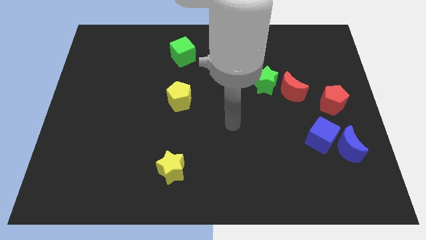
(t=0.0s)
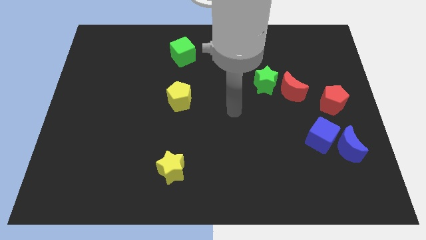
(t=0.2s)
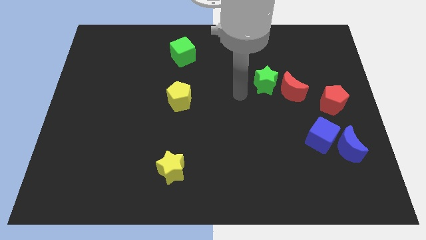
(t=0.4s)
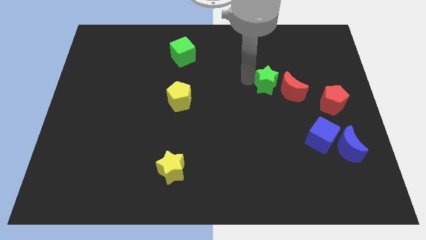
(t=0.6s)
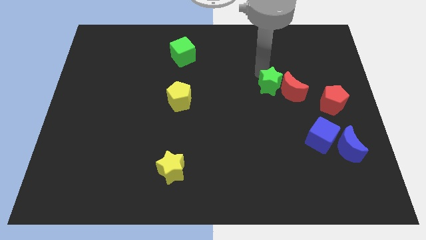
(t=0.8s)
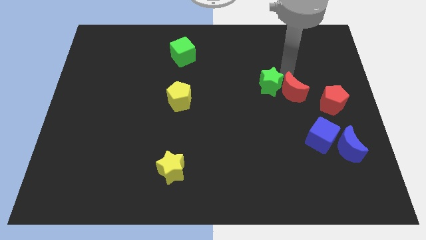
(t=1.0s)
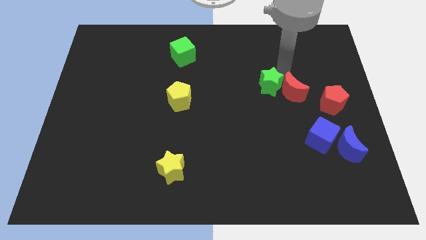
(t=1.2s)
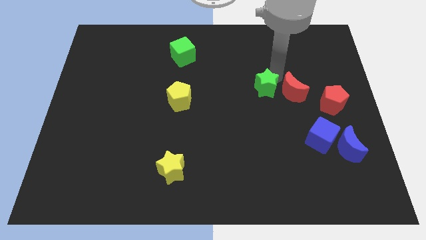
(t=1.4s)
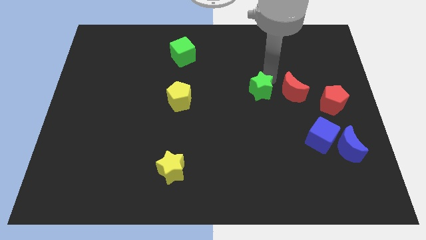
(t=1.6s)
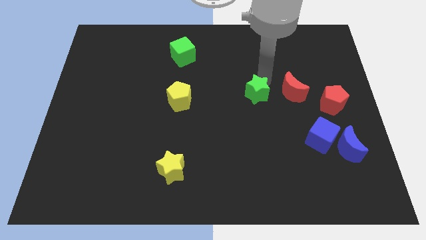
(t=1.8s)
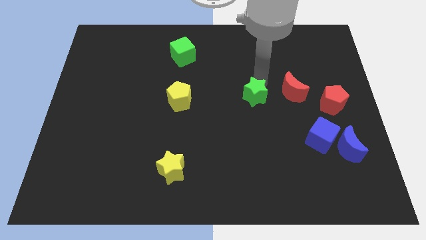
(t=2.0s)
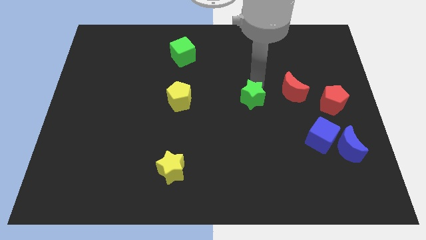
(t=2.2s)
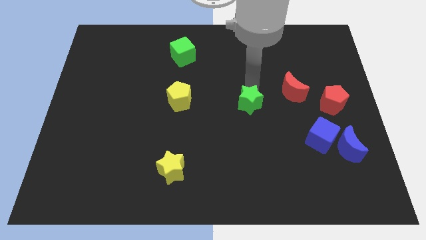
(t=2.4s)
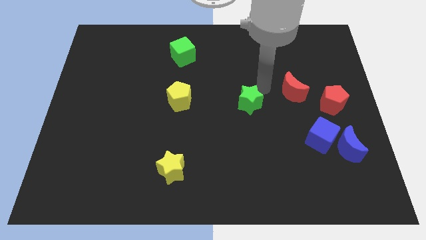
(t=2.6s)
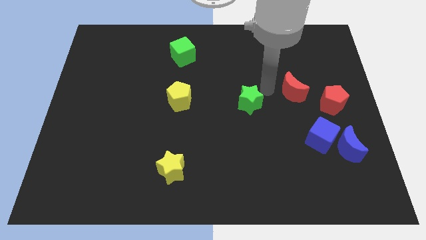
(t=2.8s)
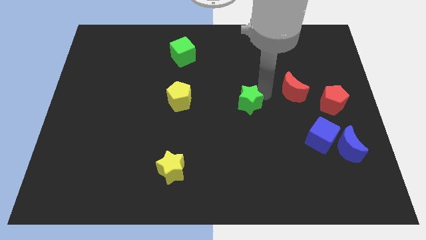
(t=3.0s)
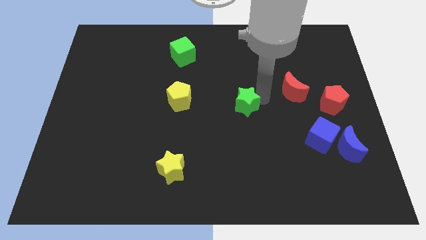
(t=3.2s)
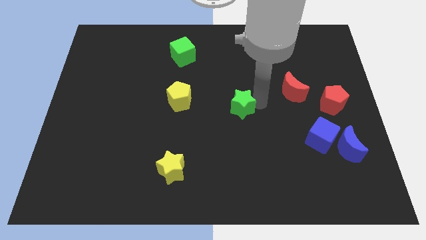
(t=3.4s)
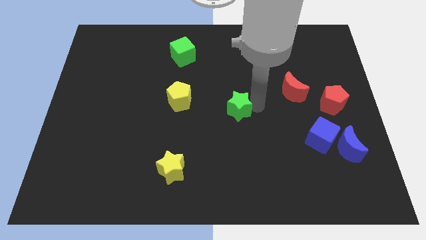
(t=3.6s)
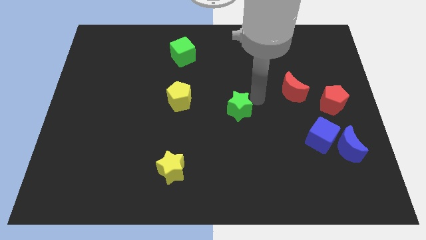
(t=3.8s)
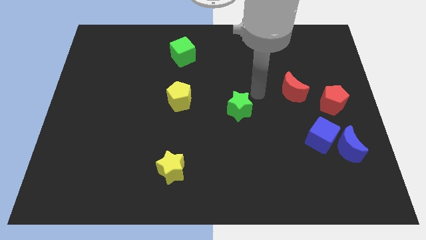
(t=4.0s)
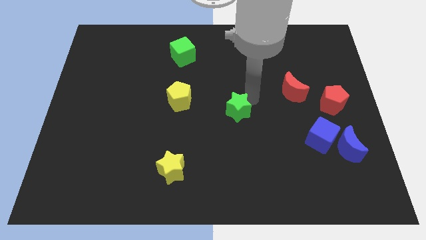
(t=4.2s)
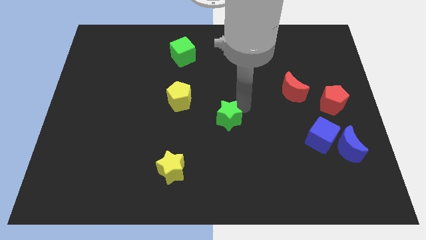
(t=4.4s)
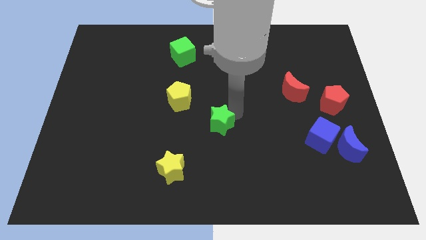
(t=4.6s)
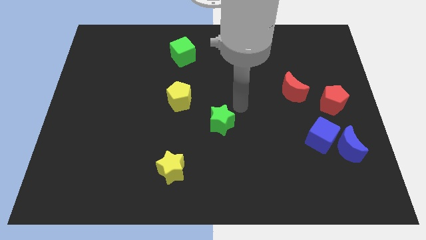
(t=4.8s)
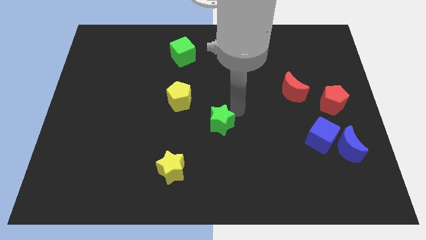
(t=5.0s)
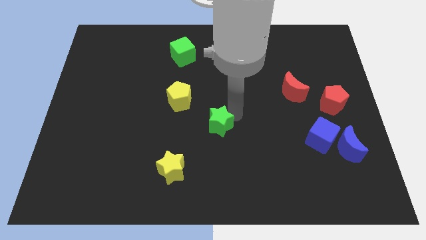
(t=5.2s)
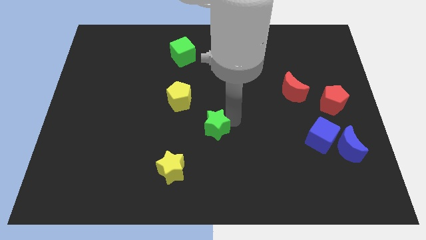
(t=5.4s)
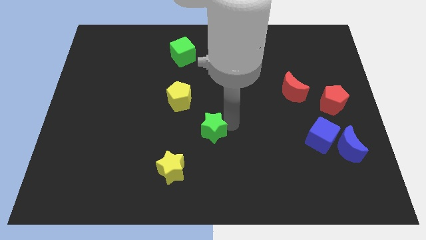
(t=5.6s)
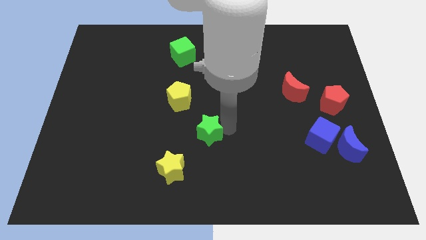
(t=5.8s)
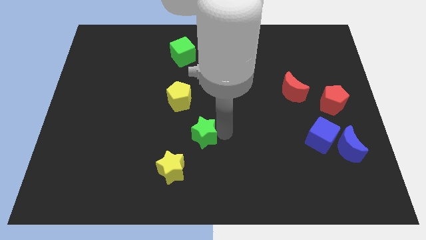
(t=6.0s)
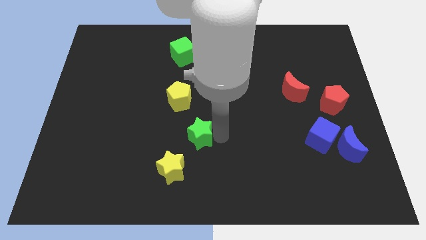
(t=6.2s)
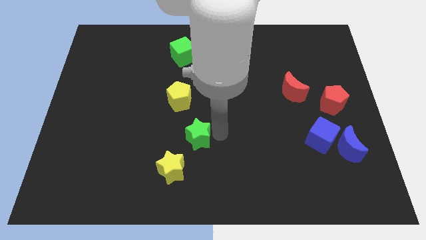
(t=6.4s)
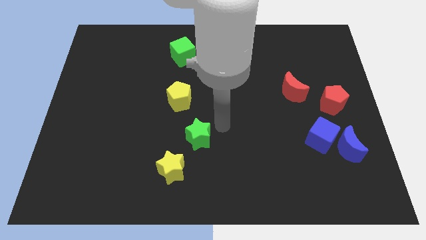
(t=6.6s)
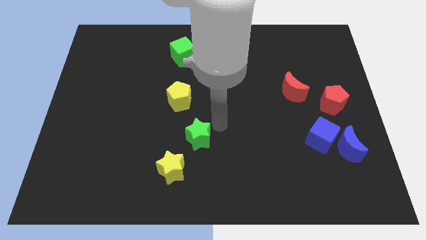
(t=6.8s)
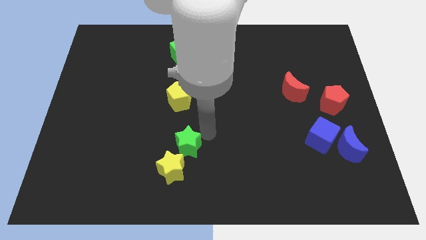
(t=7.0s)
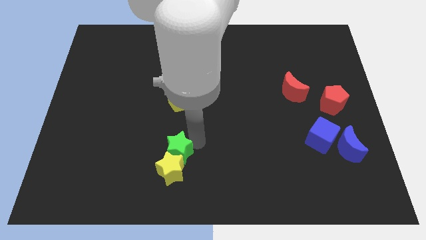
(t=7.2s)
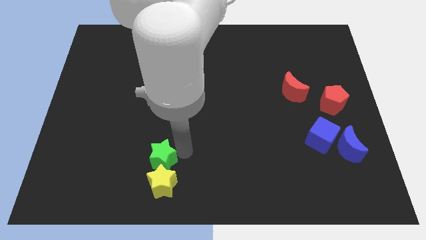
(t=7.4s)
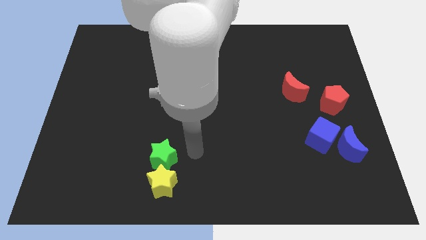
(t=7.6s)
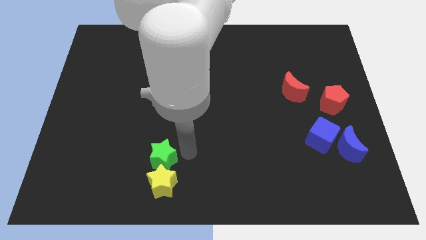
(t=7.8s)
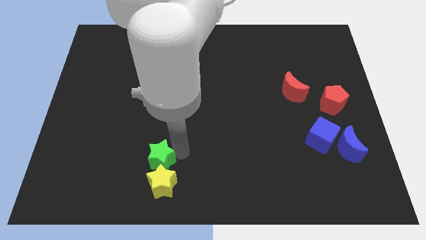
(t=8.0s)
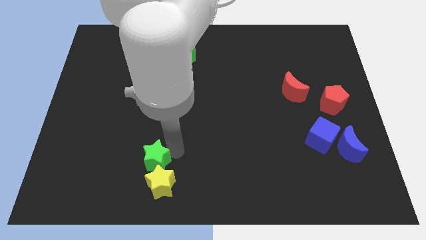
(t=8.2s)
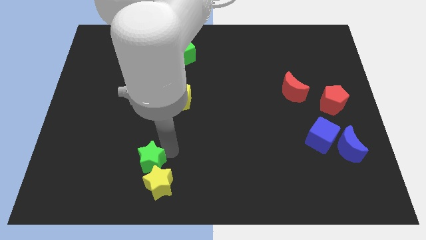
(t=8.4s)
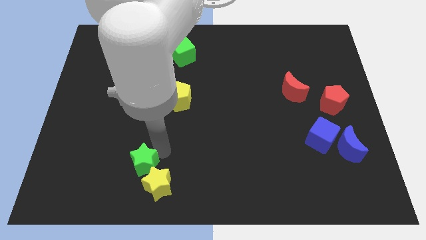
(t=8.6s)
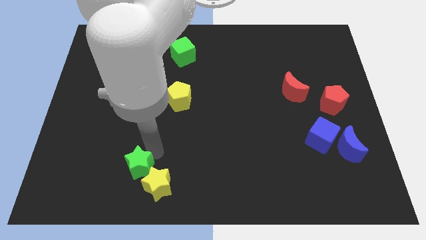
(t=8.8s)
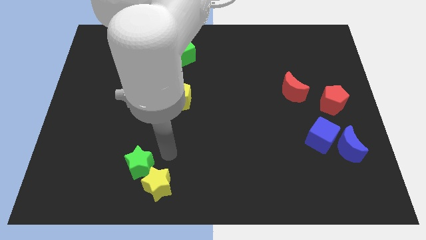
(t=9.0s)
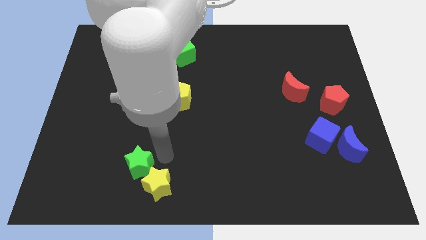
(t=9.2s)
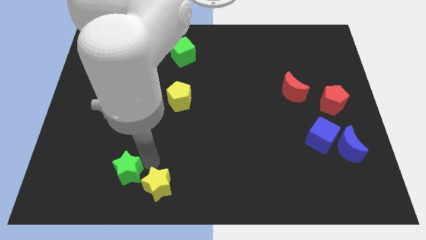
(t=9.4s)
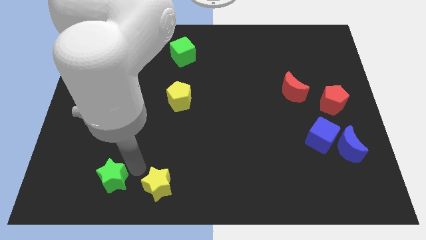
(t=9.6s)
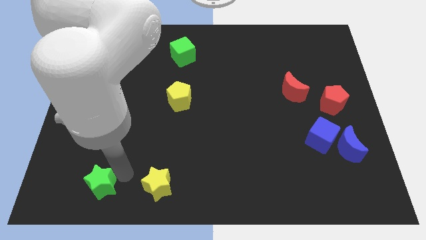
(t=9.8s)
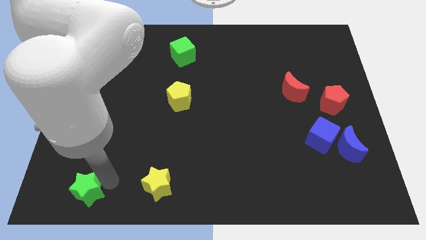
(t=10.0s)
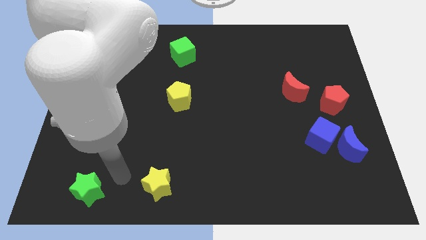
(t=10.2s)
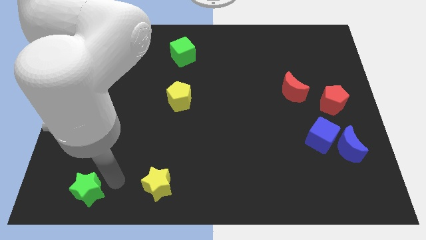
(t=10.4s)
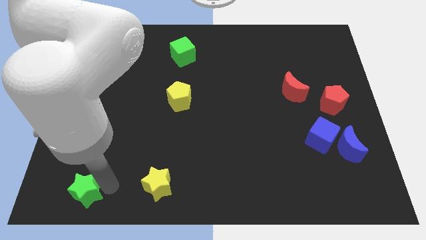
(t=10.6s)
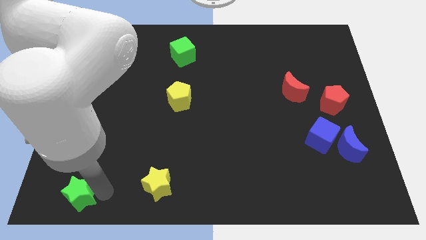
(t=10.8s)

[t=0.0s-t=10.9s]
move the green star to the bottom left of the board

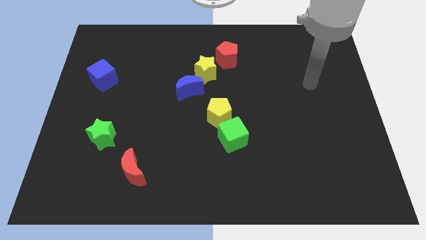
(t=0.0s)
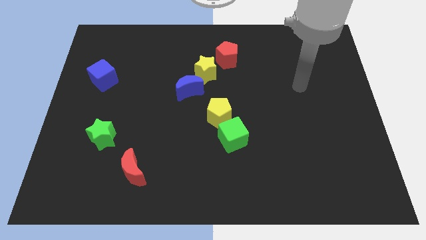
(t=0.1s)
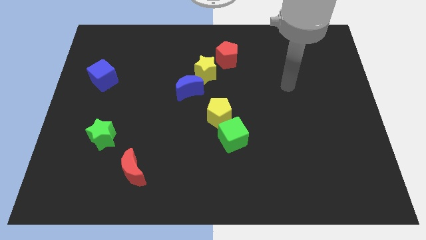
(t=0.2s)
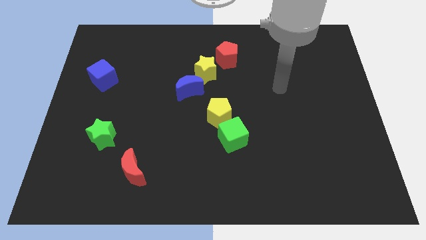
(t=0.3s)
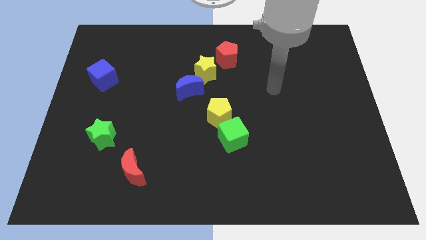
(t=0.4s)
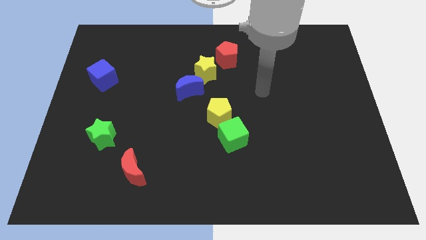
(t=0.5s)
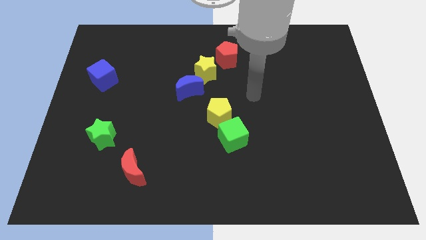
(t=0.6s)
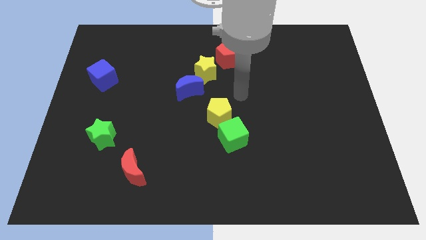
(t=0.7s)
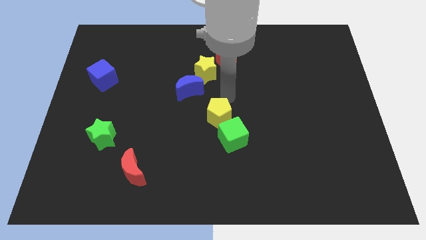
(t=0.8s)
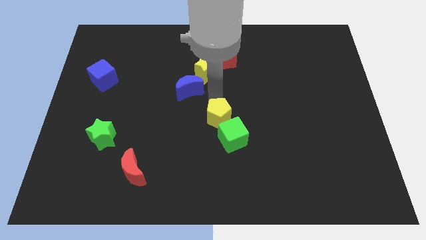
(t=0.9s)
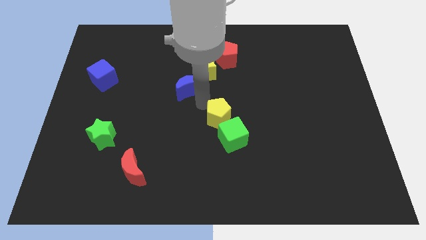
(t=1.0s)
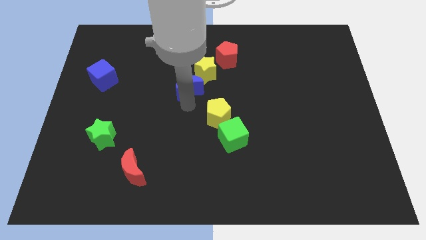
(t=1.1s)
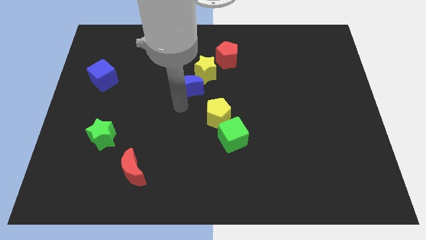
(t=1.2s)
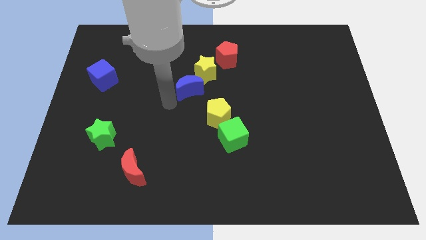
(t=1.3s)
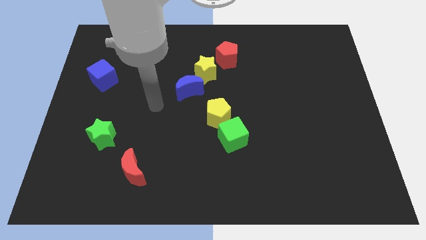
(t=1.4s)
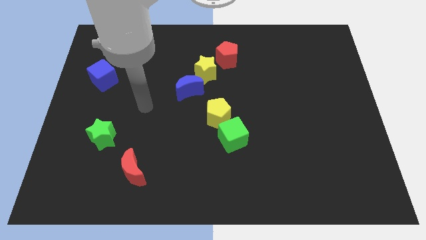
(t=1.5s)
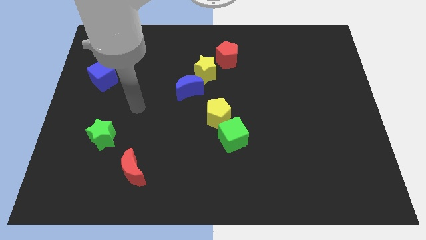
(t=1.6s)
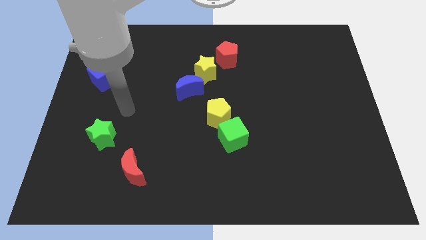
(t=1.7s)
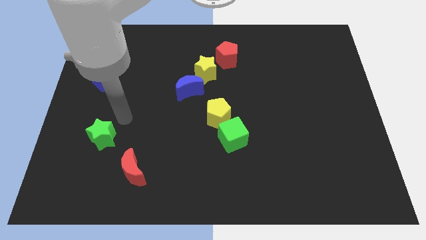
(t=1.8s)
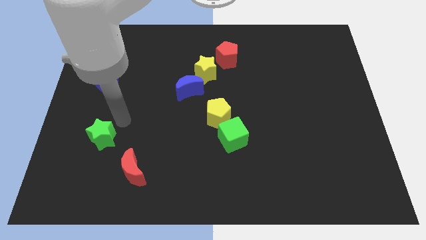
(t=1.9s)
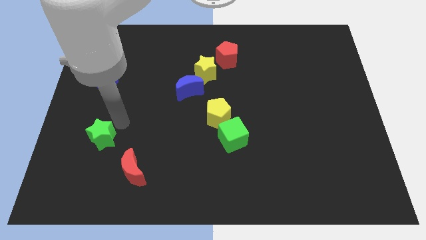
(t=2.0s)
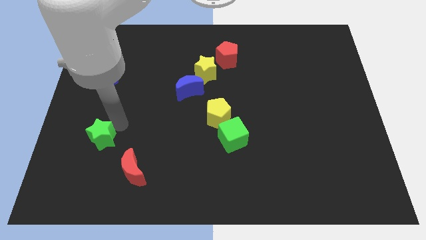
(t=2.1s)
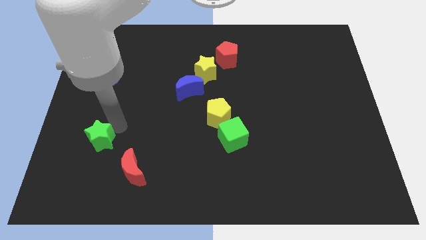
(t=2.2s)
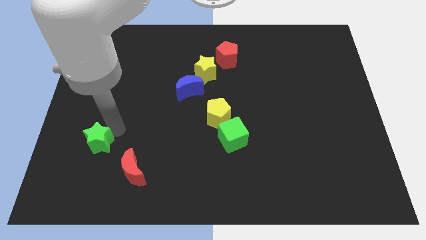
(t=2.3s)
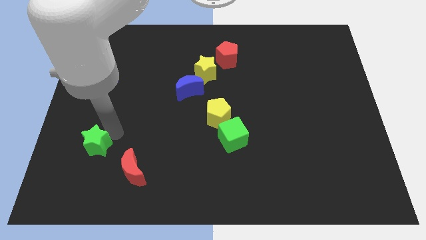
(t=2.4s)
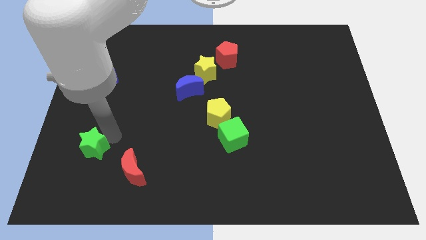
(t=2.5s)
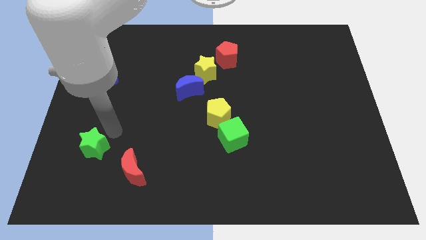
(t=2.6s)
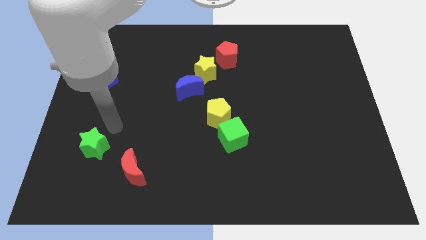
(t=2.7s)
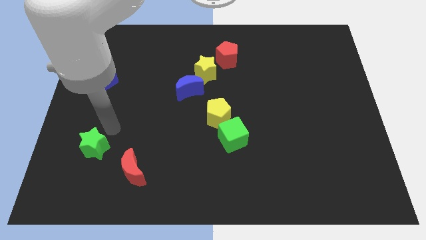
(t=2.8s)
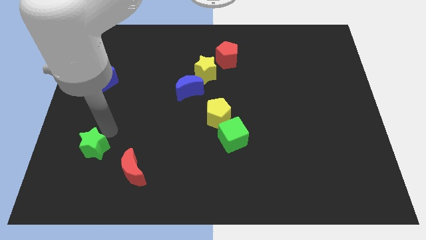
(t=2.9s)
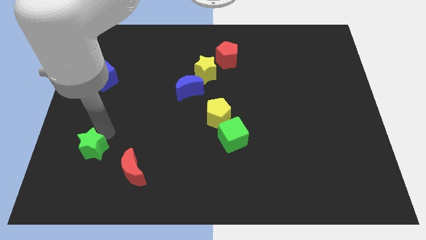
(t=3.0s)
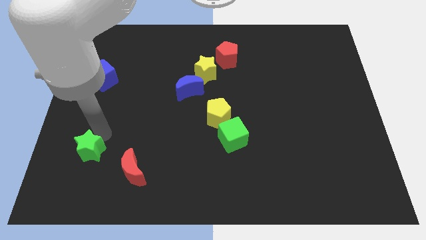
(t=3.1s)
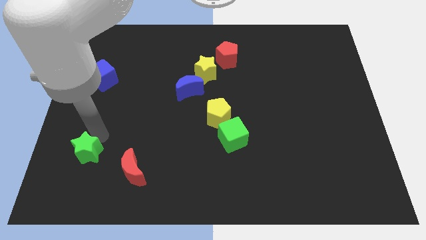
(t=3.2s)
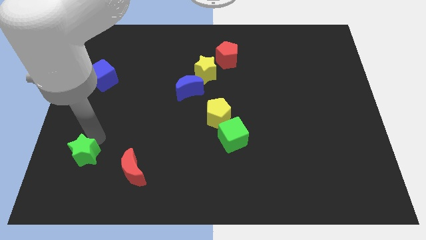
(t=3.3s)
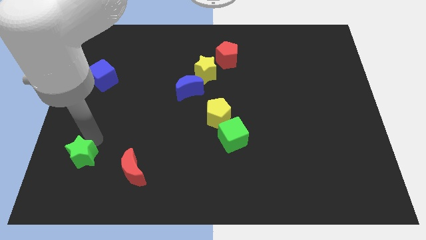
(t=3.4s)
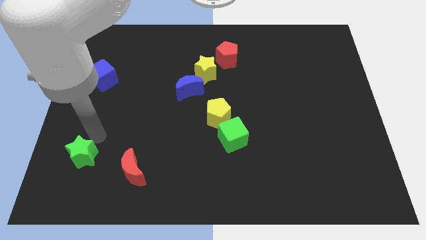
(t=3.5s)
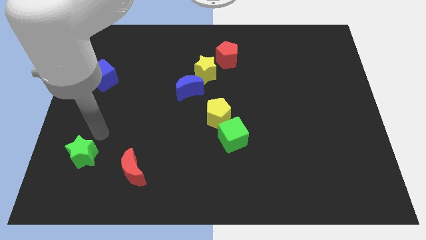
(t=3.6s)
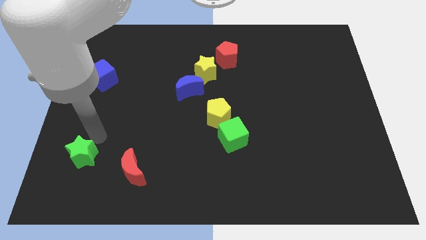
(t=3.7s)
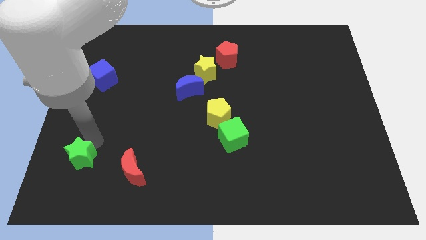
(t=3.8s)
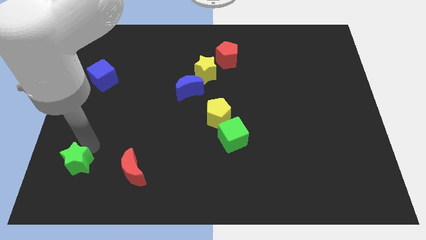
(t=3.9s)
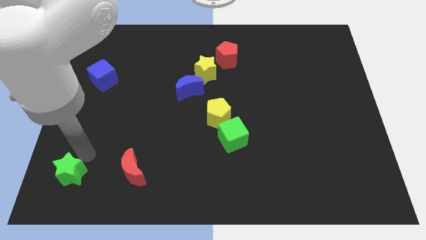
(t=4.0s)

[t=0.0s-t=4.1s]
push the green star to the lower left corner
